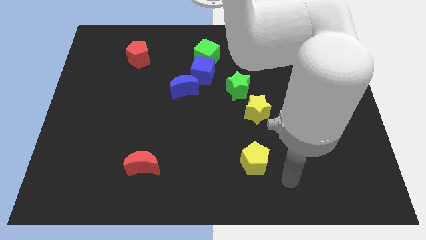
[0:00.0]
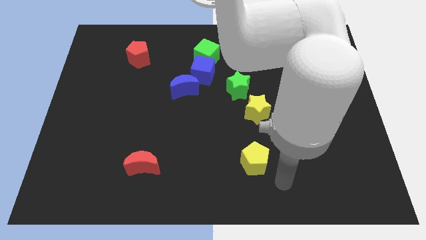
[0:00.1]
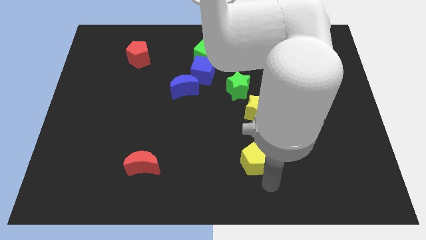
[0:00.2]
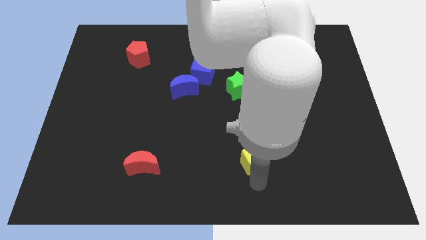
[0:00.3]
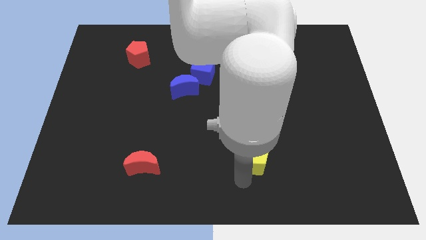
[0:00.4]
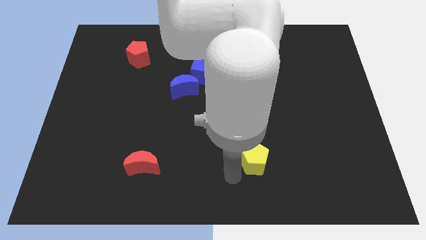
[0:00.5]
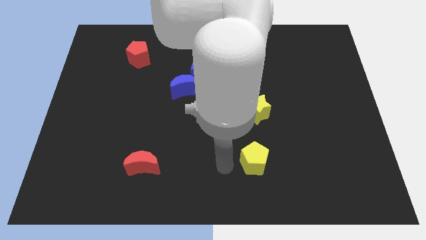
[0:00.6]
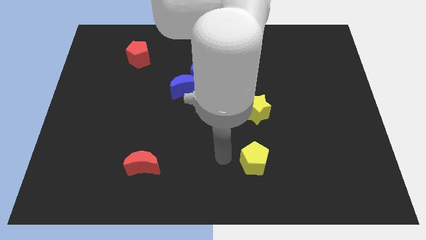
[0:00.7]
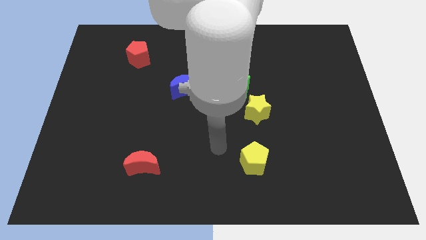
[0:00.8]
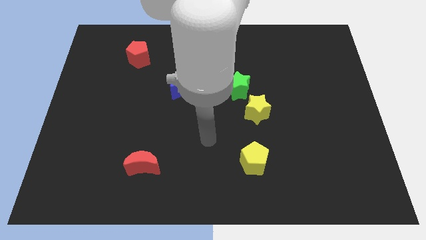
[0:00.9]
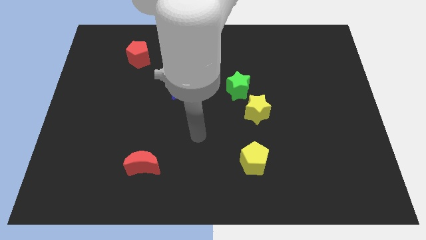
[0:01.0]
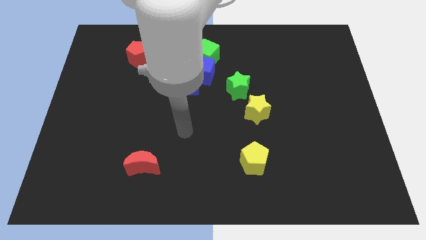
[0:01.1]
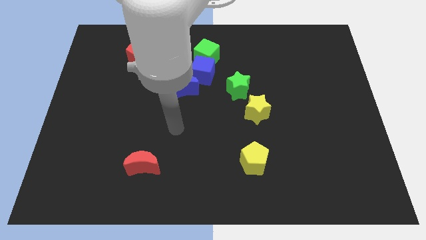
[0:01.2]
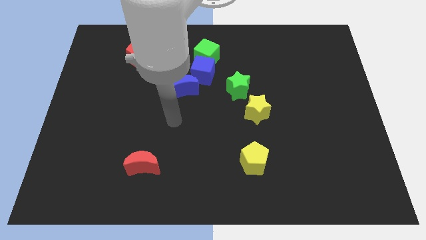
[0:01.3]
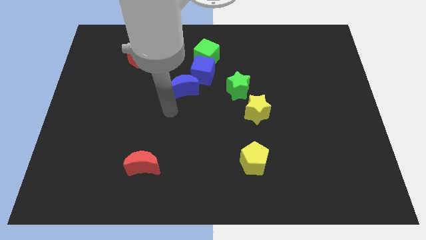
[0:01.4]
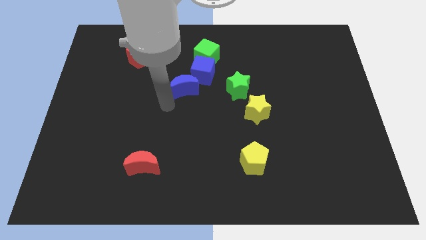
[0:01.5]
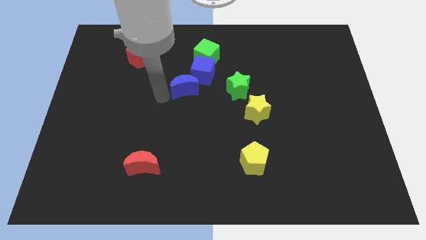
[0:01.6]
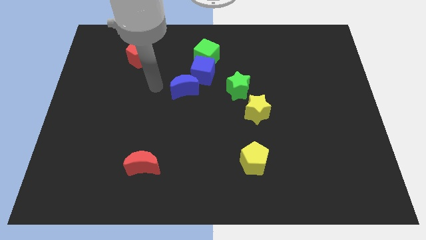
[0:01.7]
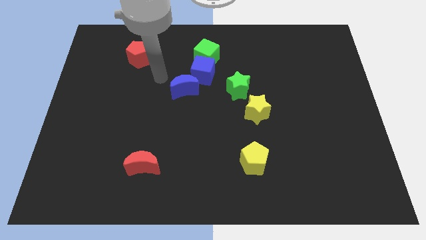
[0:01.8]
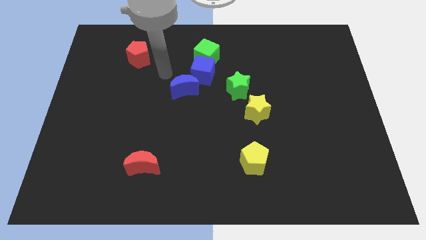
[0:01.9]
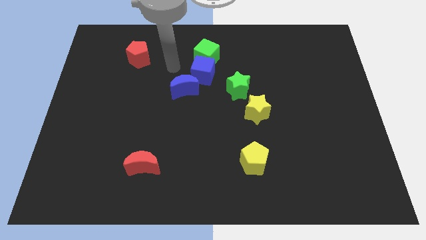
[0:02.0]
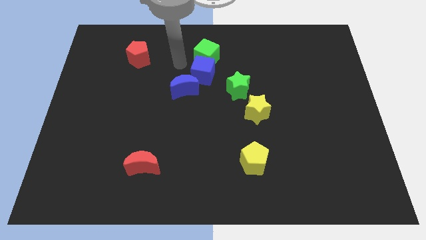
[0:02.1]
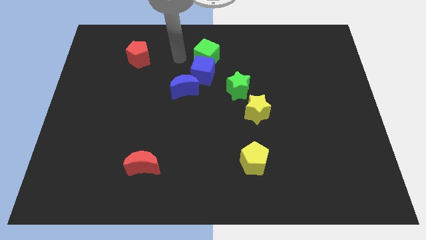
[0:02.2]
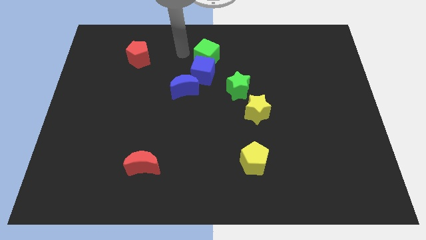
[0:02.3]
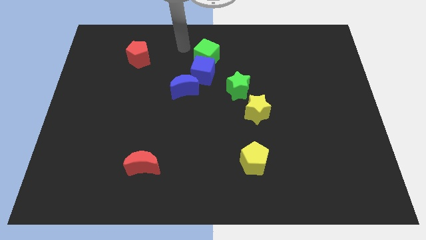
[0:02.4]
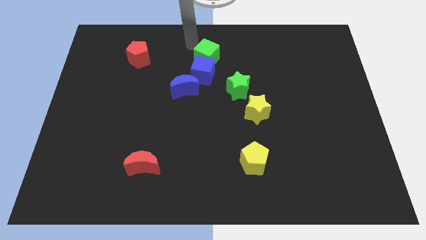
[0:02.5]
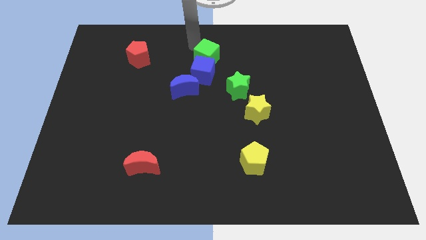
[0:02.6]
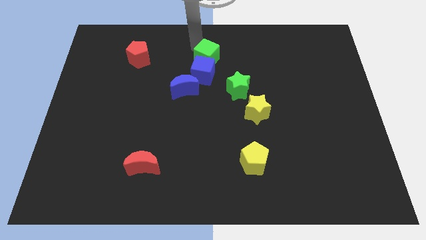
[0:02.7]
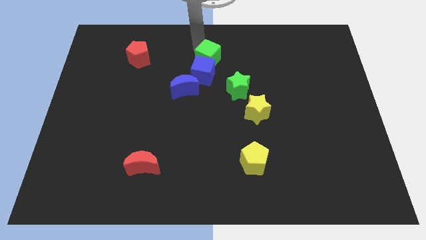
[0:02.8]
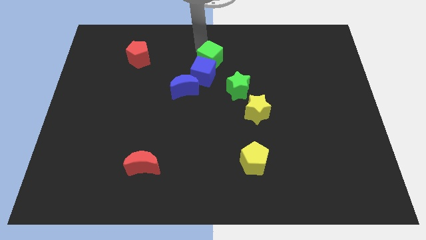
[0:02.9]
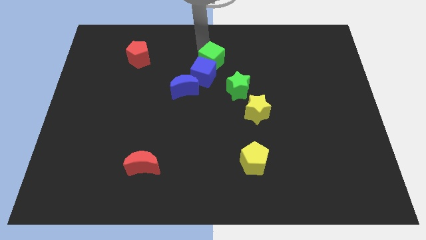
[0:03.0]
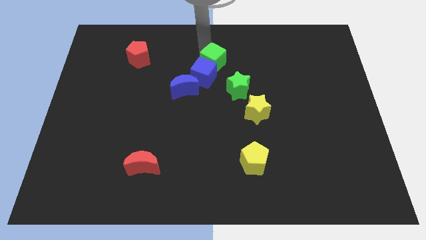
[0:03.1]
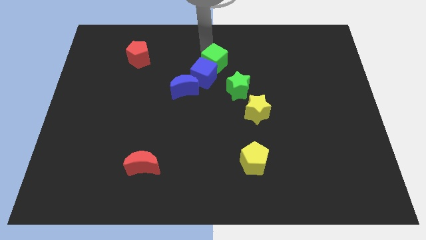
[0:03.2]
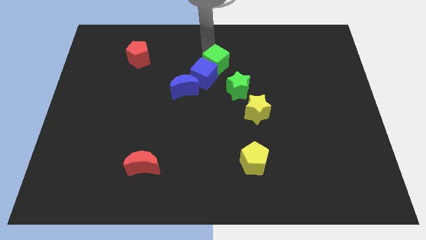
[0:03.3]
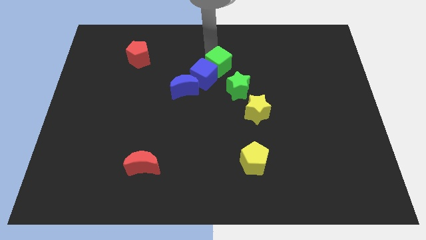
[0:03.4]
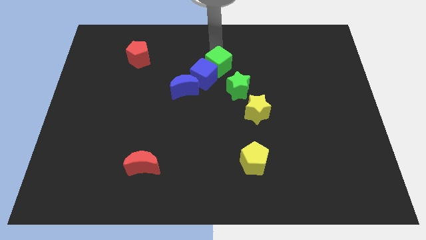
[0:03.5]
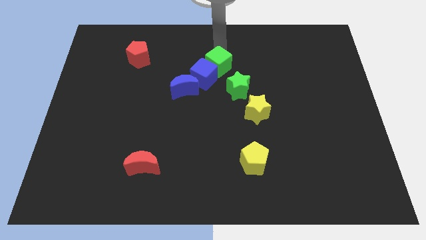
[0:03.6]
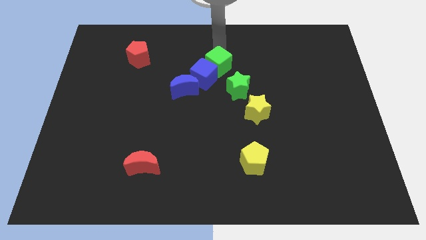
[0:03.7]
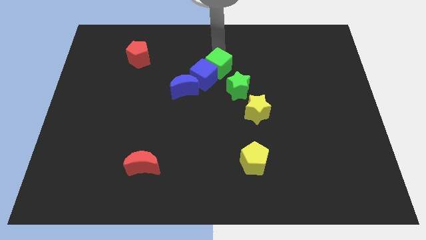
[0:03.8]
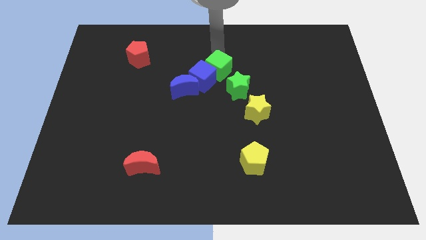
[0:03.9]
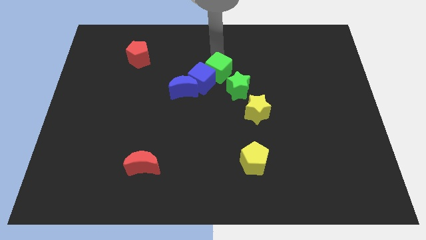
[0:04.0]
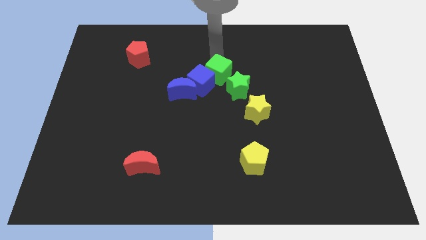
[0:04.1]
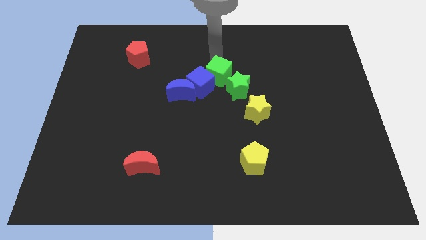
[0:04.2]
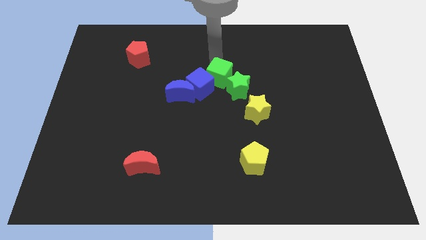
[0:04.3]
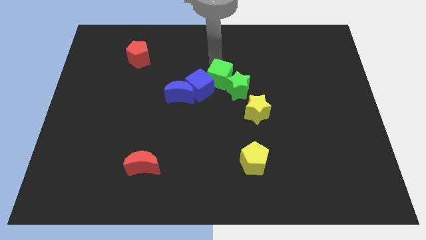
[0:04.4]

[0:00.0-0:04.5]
move the green cube a little bit down

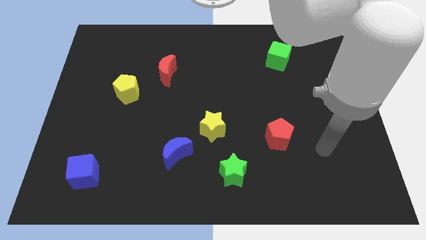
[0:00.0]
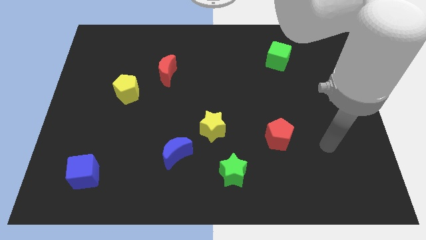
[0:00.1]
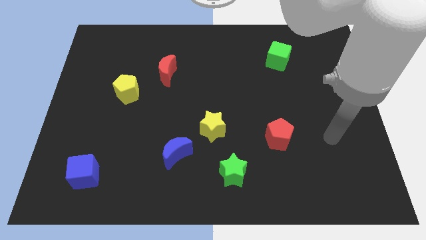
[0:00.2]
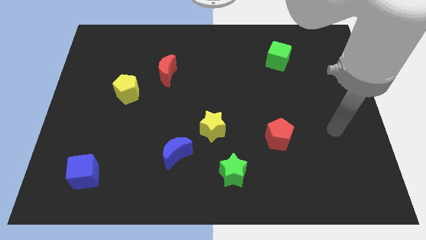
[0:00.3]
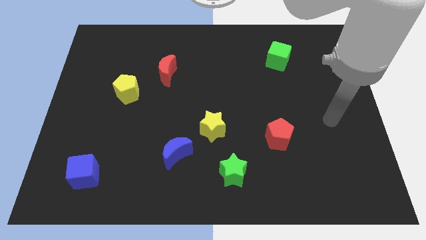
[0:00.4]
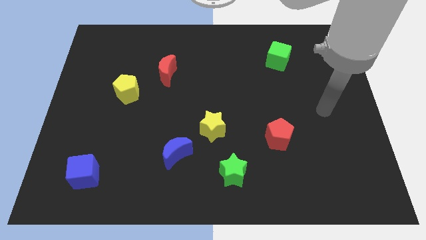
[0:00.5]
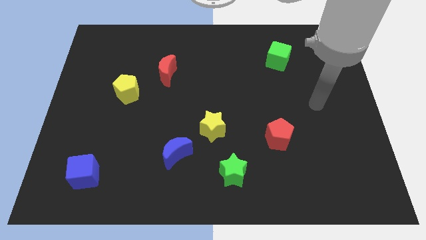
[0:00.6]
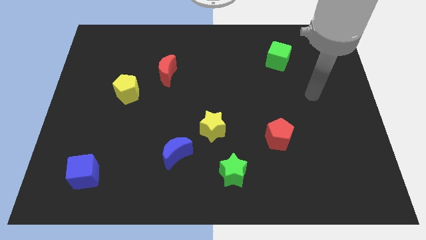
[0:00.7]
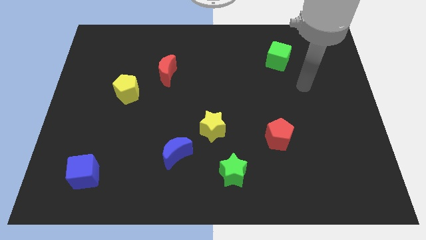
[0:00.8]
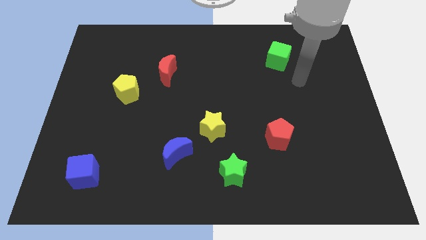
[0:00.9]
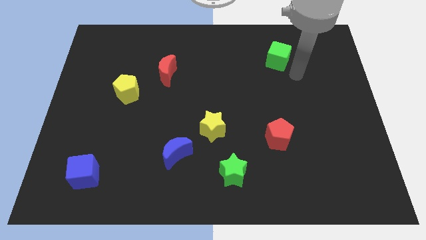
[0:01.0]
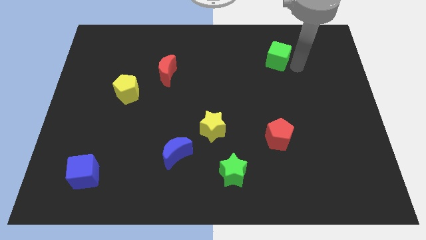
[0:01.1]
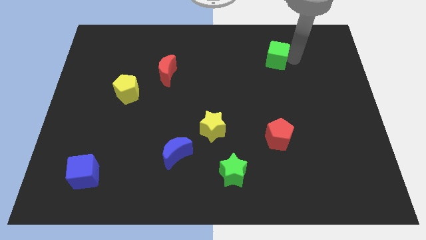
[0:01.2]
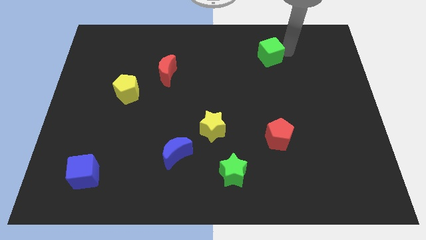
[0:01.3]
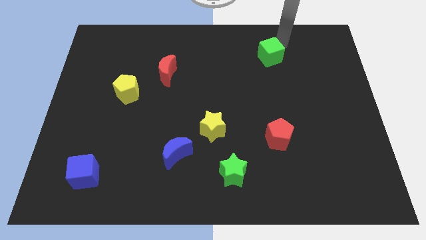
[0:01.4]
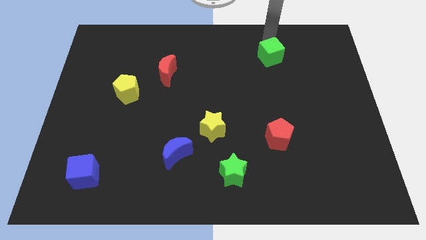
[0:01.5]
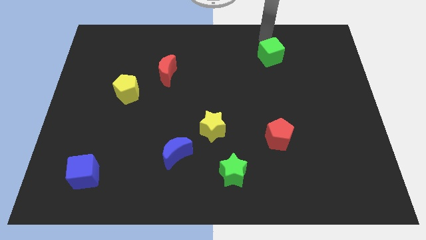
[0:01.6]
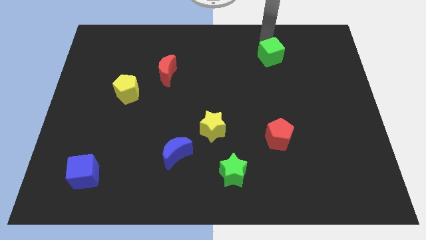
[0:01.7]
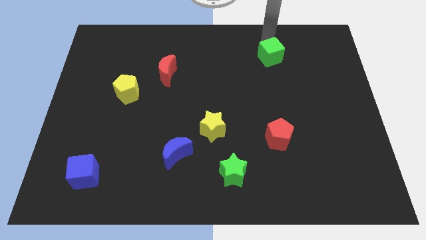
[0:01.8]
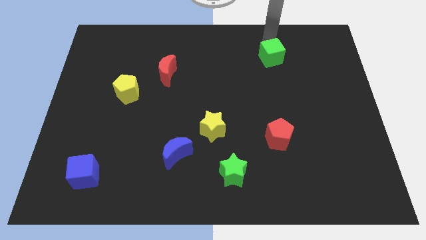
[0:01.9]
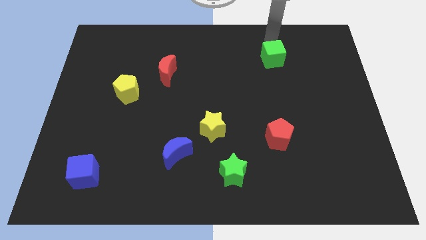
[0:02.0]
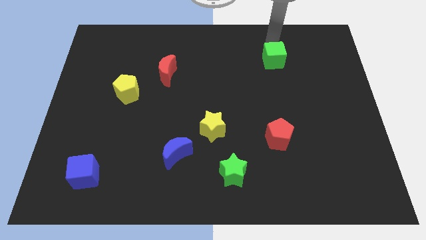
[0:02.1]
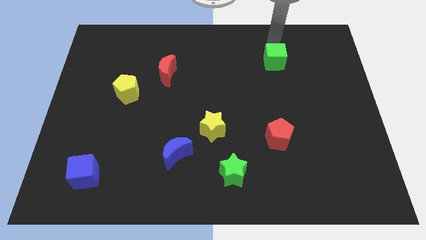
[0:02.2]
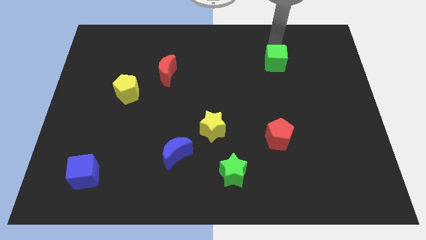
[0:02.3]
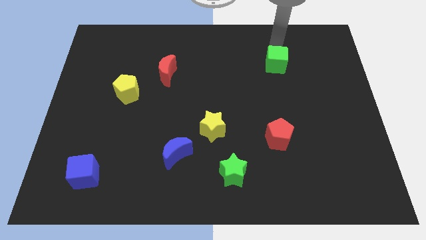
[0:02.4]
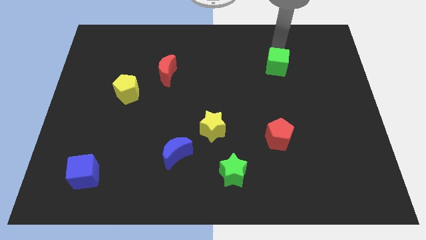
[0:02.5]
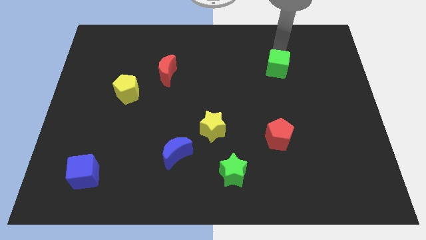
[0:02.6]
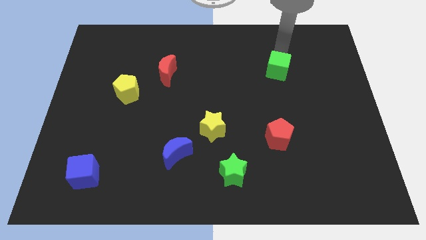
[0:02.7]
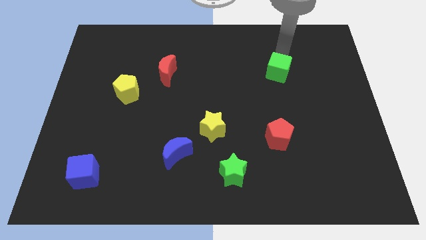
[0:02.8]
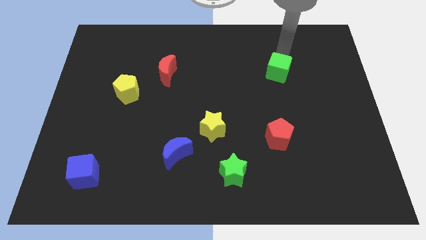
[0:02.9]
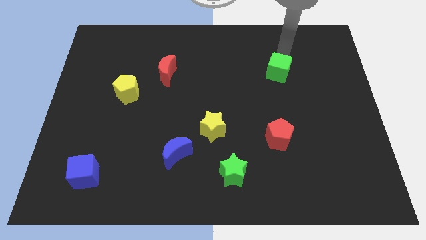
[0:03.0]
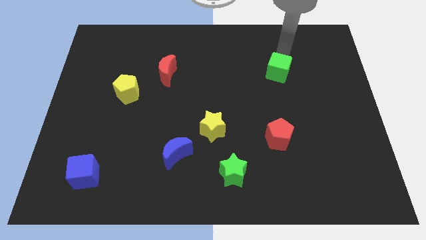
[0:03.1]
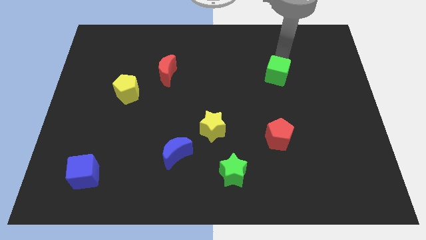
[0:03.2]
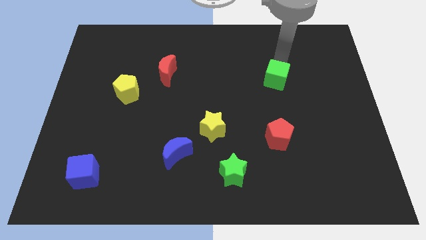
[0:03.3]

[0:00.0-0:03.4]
slightly push the green cube downwards

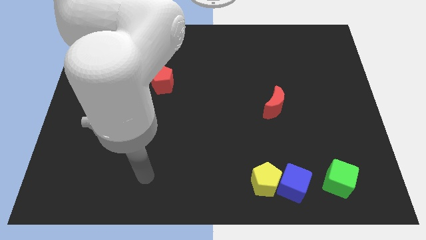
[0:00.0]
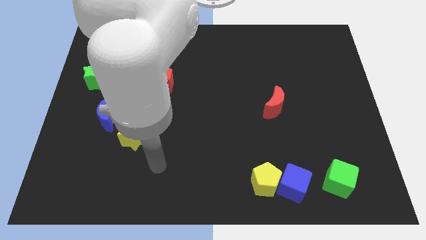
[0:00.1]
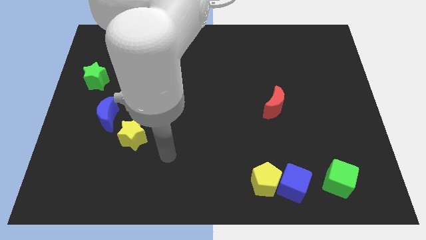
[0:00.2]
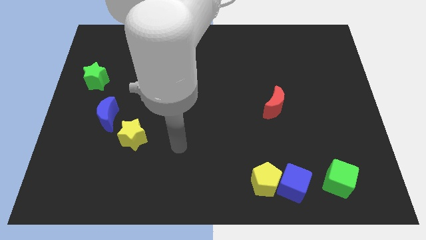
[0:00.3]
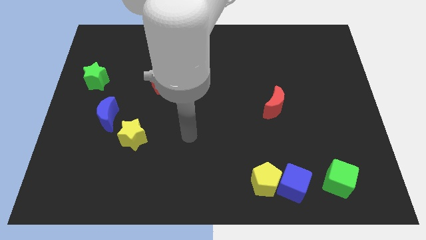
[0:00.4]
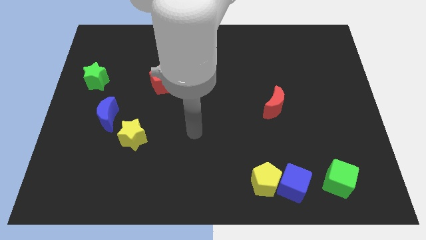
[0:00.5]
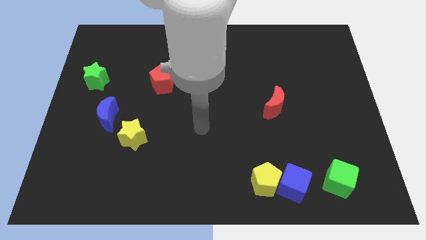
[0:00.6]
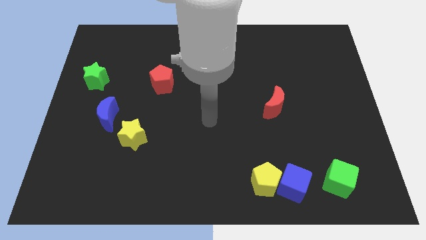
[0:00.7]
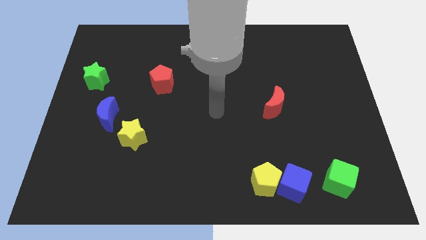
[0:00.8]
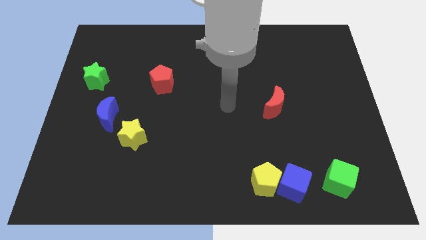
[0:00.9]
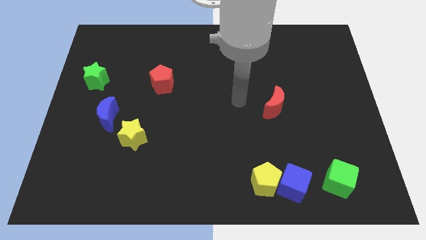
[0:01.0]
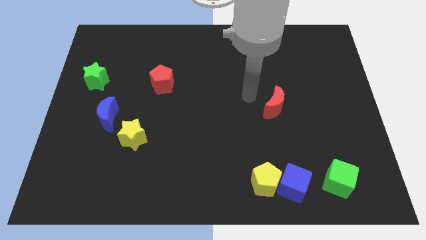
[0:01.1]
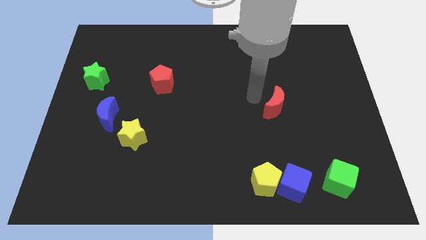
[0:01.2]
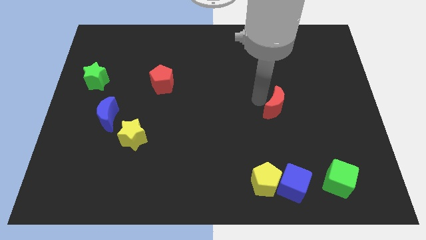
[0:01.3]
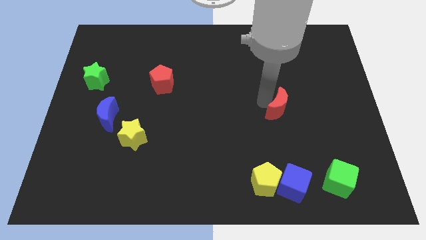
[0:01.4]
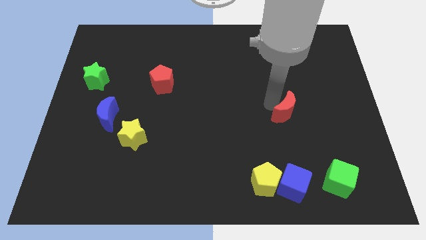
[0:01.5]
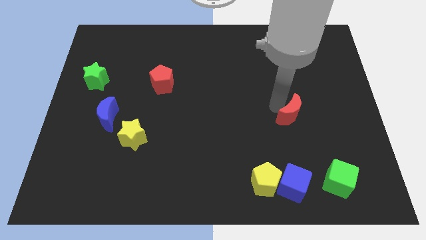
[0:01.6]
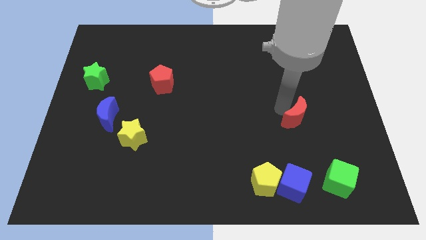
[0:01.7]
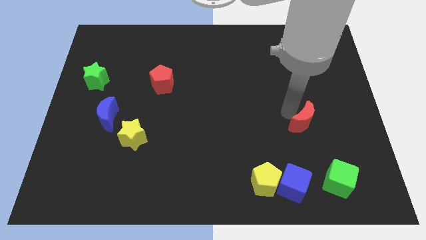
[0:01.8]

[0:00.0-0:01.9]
push the red moon downwards and to the right diagonally a little bit
